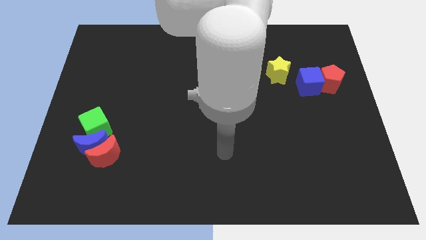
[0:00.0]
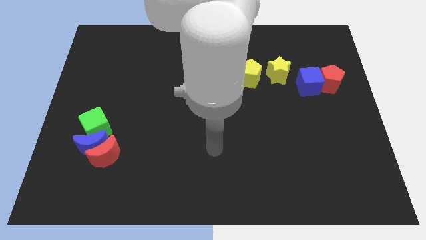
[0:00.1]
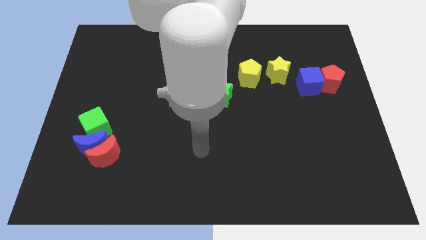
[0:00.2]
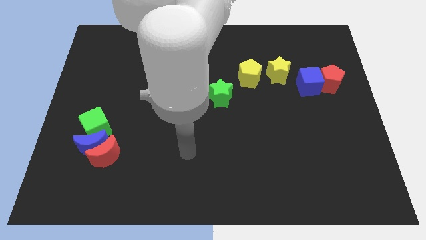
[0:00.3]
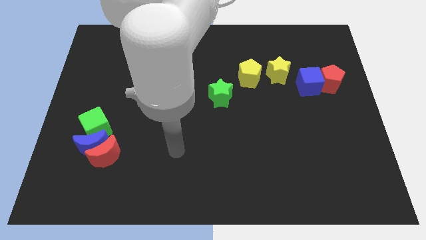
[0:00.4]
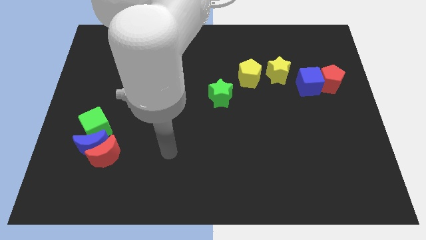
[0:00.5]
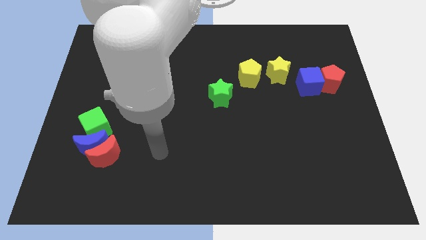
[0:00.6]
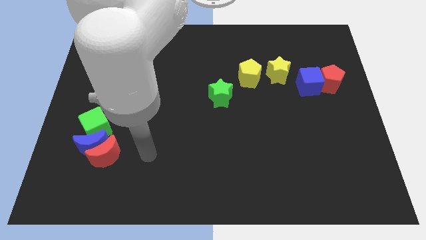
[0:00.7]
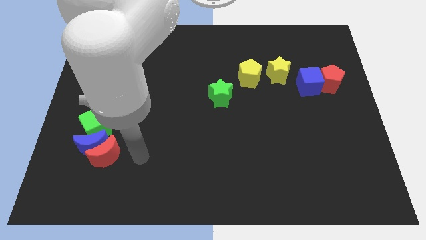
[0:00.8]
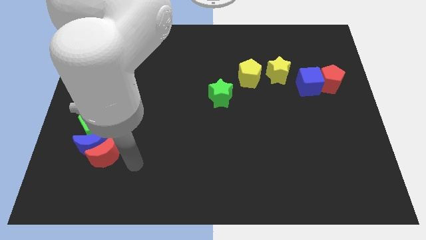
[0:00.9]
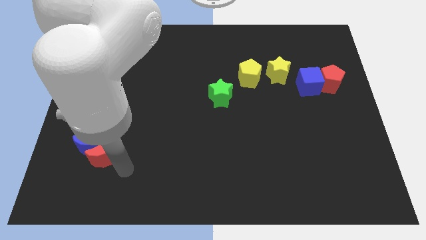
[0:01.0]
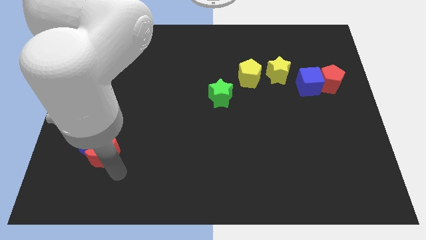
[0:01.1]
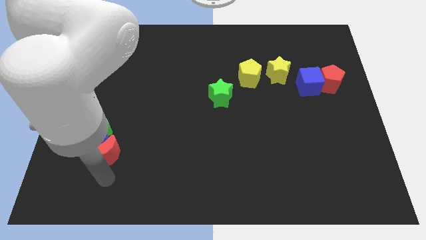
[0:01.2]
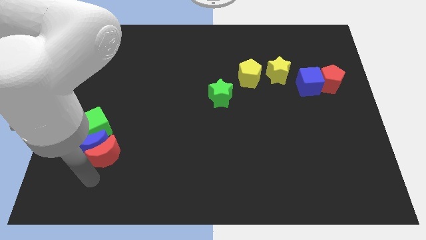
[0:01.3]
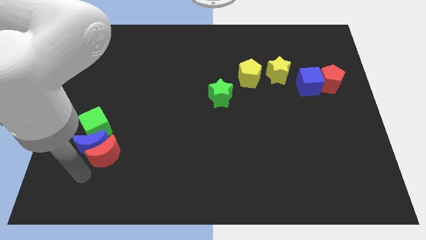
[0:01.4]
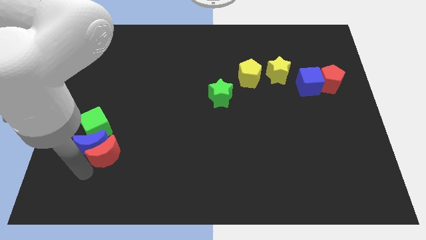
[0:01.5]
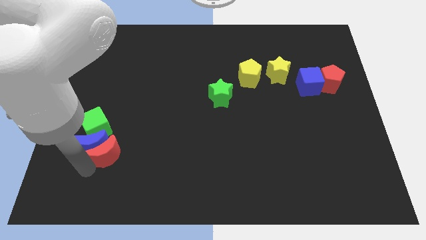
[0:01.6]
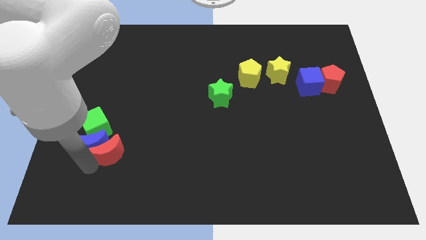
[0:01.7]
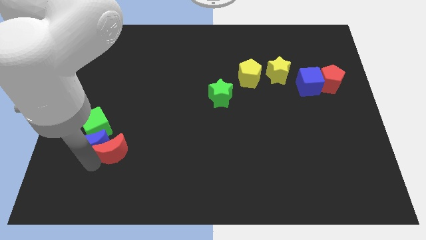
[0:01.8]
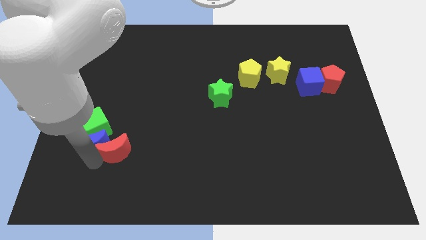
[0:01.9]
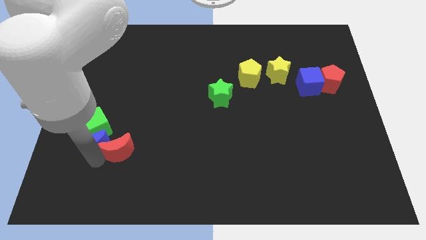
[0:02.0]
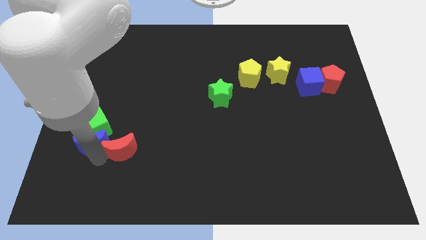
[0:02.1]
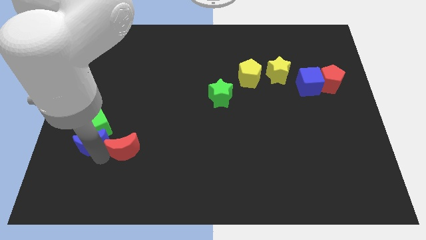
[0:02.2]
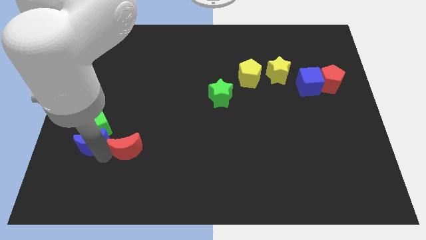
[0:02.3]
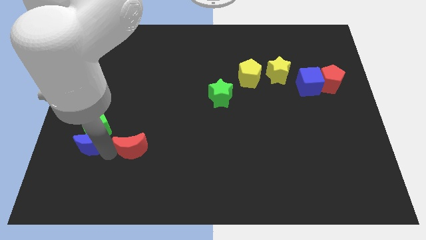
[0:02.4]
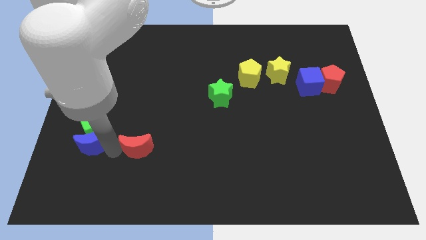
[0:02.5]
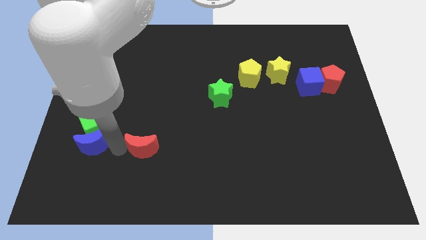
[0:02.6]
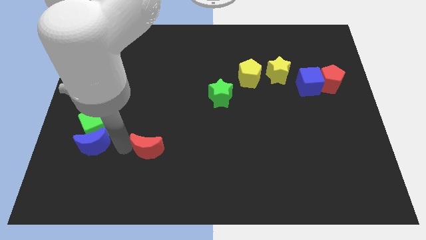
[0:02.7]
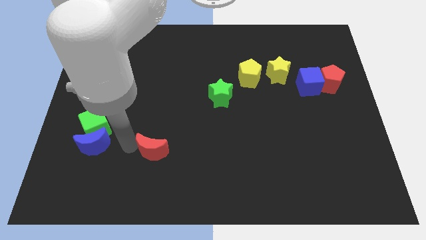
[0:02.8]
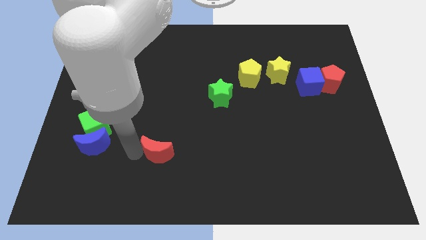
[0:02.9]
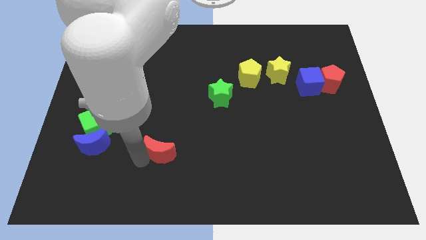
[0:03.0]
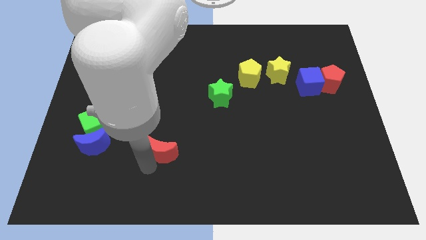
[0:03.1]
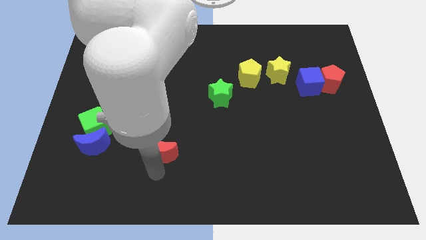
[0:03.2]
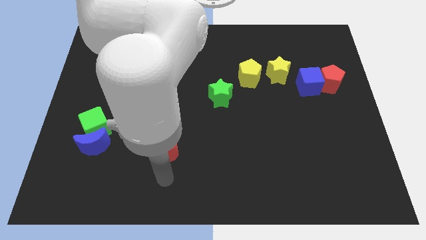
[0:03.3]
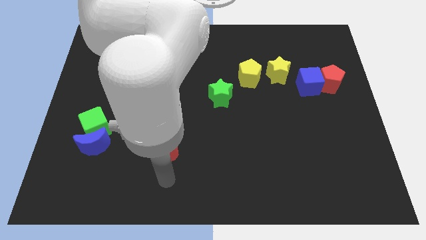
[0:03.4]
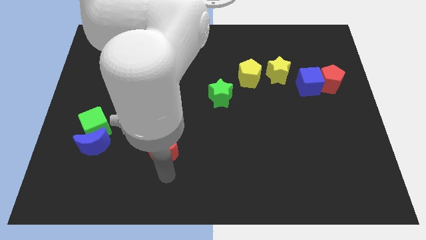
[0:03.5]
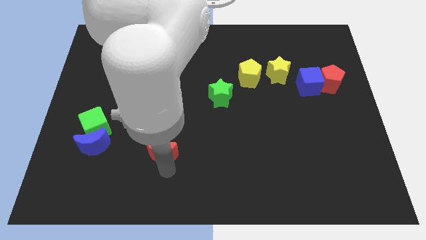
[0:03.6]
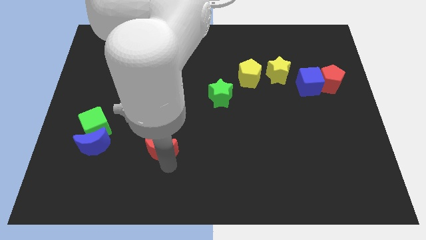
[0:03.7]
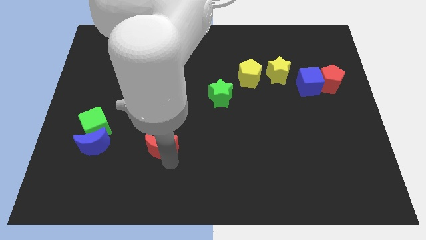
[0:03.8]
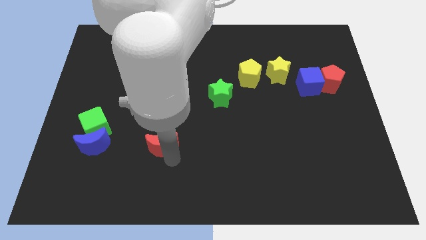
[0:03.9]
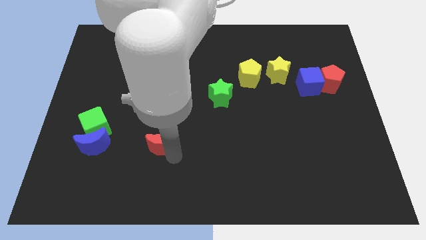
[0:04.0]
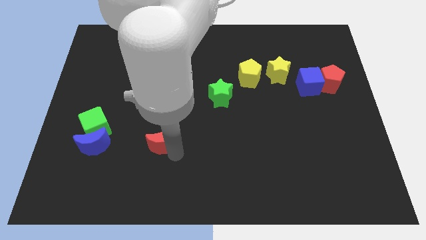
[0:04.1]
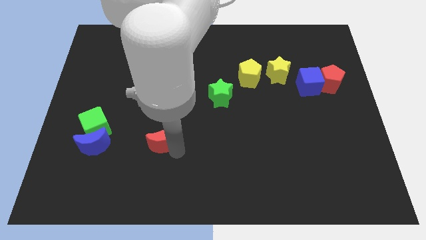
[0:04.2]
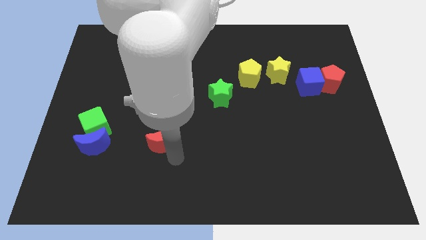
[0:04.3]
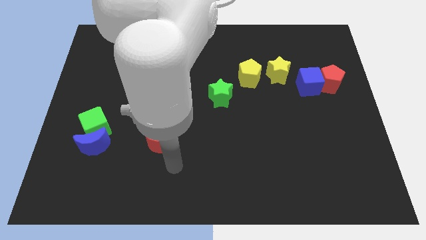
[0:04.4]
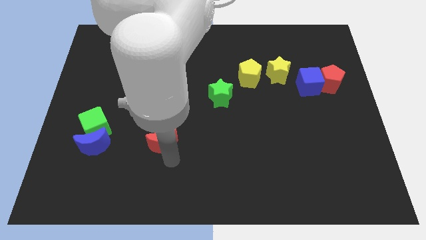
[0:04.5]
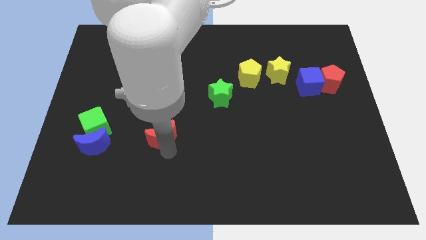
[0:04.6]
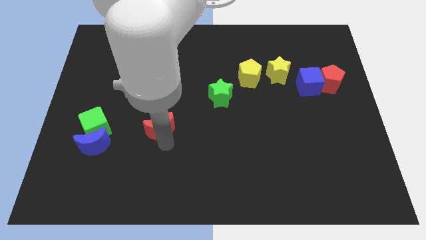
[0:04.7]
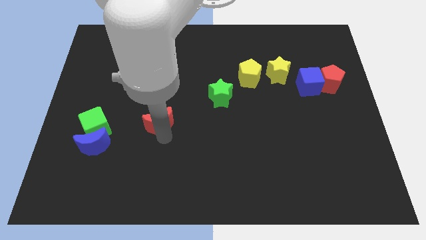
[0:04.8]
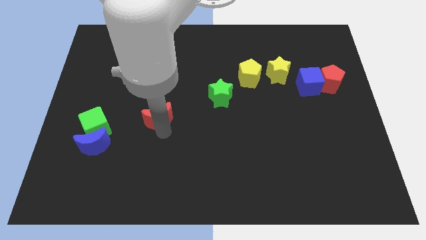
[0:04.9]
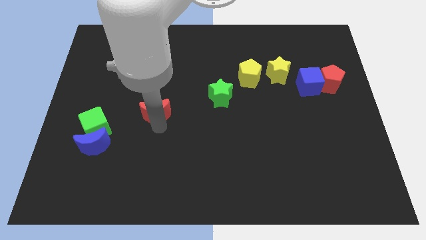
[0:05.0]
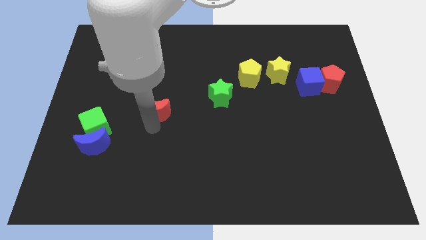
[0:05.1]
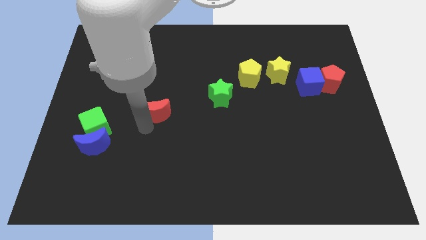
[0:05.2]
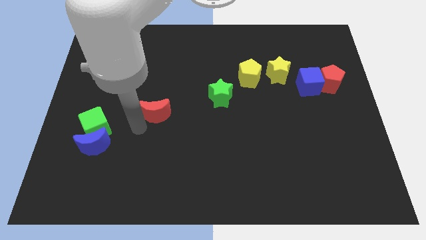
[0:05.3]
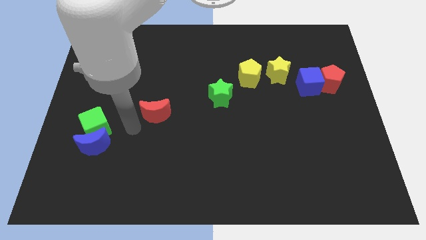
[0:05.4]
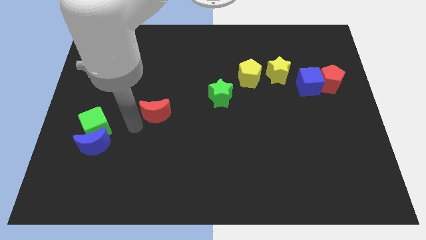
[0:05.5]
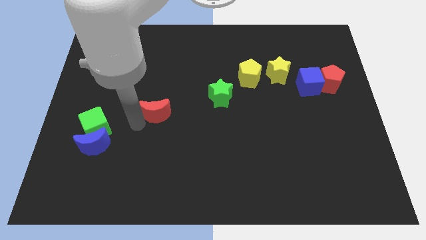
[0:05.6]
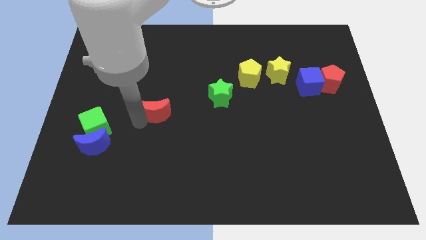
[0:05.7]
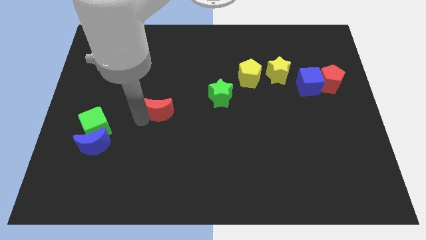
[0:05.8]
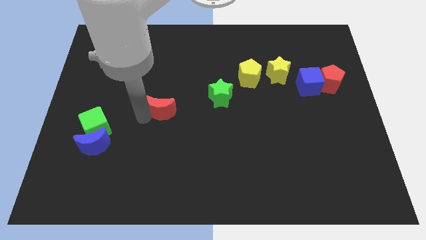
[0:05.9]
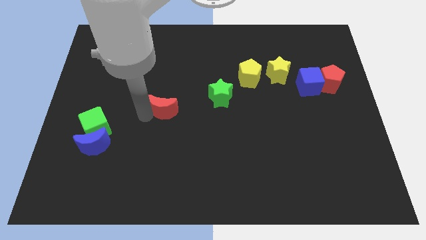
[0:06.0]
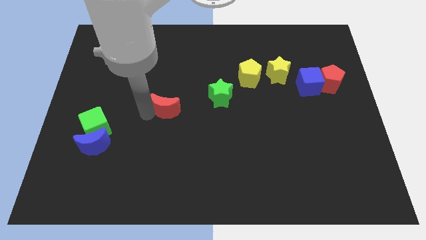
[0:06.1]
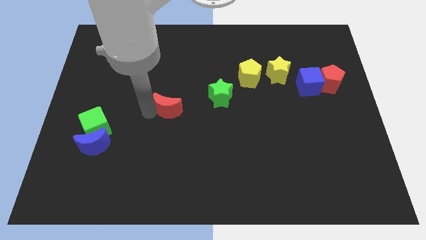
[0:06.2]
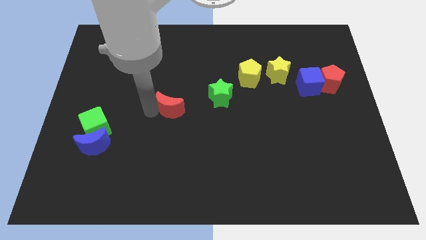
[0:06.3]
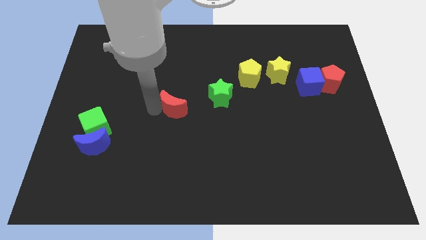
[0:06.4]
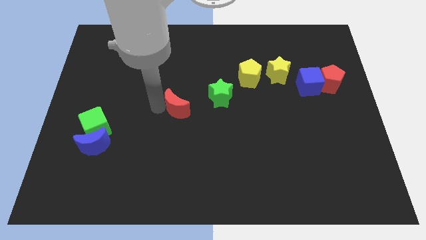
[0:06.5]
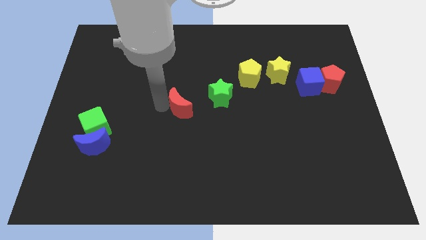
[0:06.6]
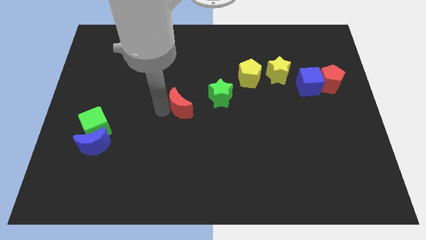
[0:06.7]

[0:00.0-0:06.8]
push the red moon up and right diagonally

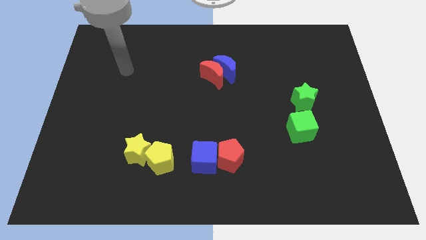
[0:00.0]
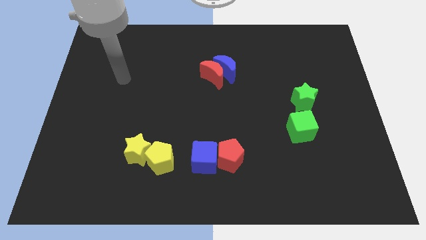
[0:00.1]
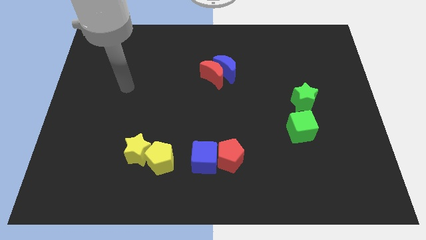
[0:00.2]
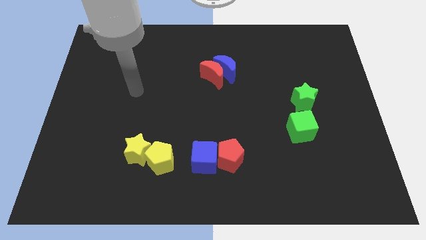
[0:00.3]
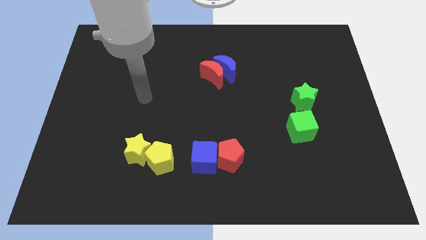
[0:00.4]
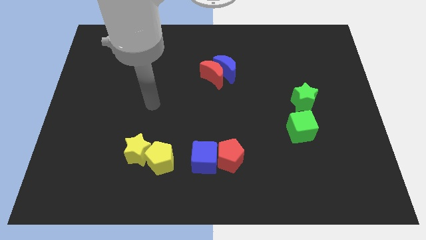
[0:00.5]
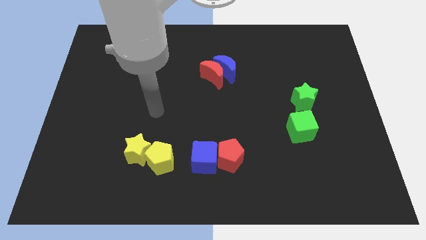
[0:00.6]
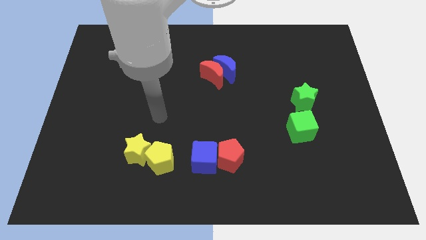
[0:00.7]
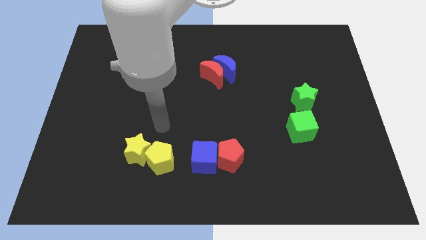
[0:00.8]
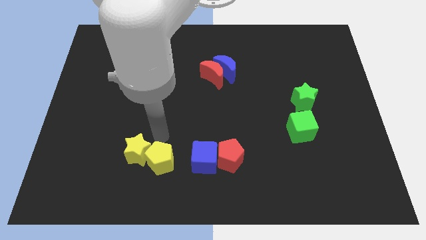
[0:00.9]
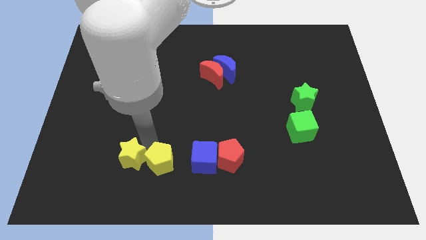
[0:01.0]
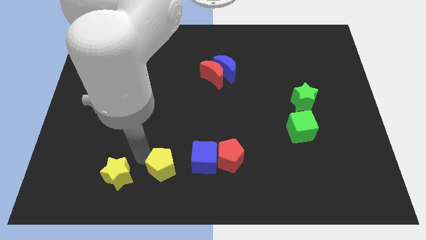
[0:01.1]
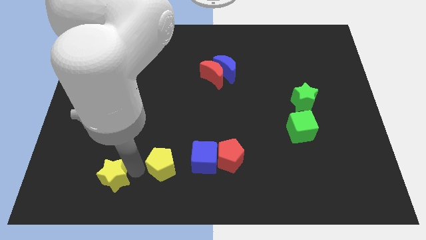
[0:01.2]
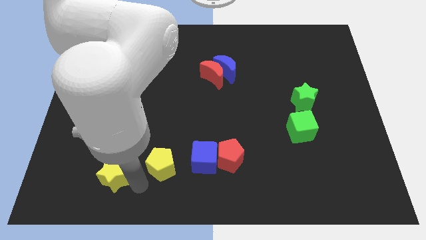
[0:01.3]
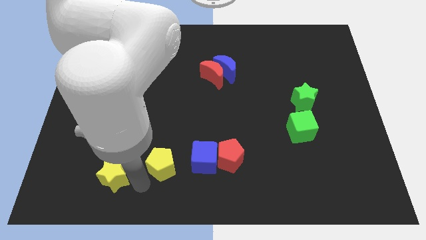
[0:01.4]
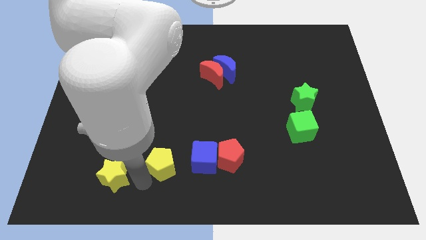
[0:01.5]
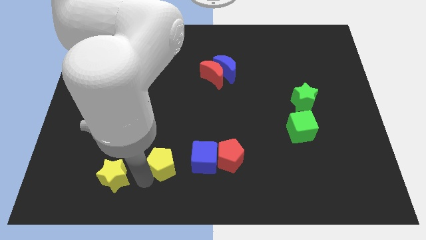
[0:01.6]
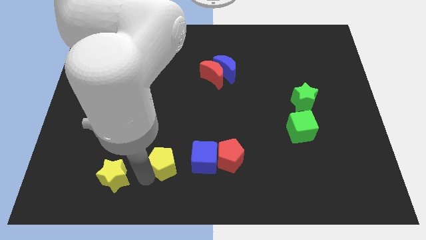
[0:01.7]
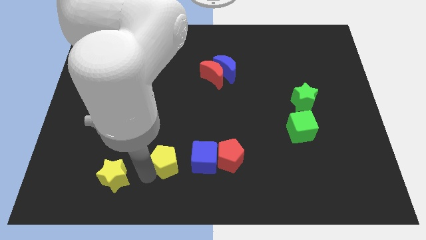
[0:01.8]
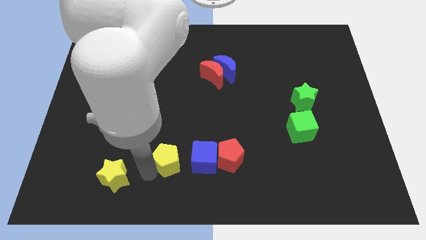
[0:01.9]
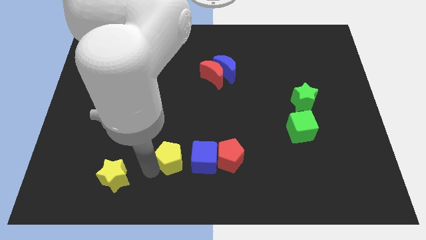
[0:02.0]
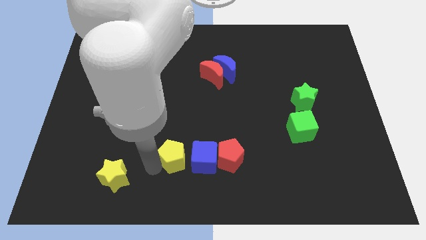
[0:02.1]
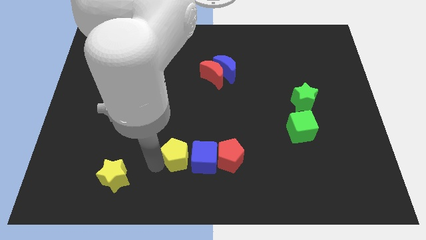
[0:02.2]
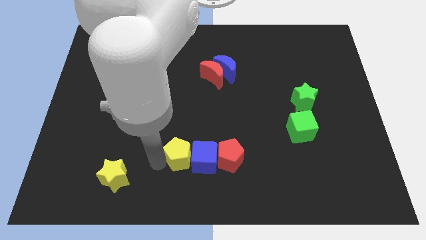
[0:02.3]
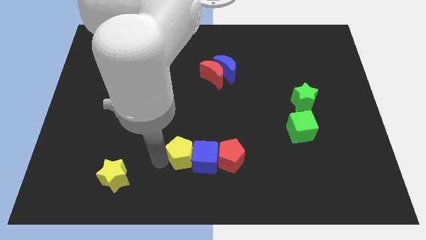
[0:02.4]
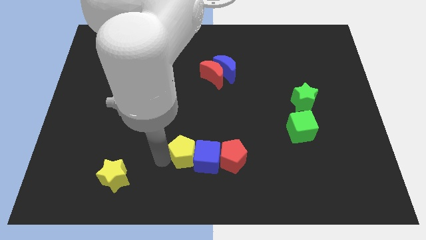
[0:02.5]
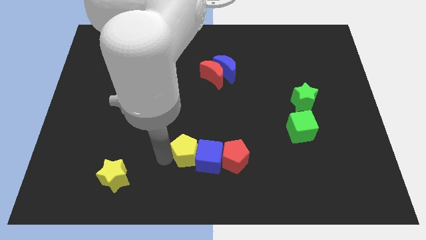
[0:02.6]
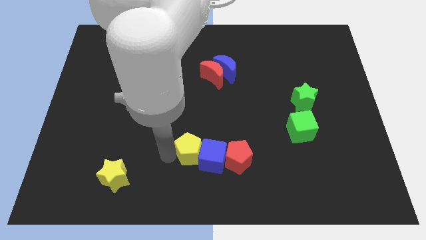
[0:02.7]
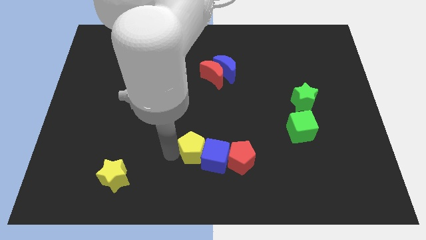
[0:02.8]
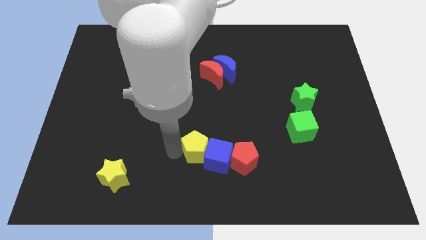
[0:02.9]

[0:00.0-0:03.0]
slide the yellow pentagon a bit right
